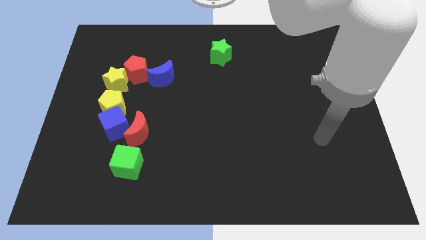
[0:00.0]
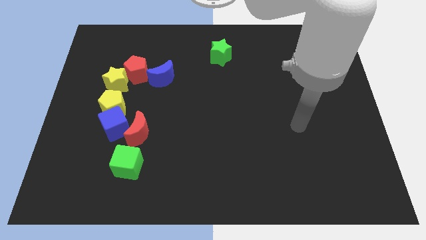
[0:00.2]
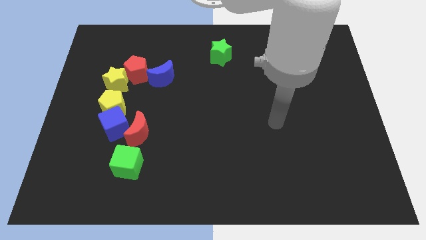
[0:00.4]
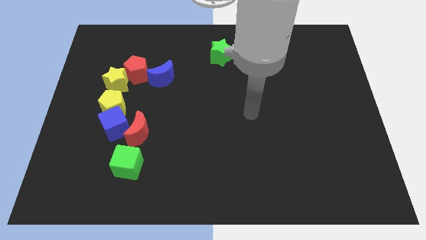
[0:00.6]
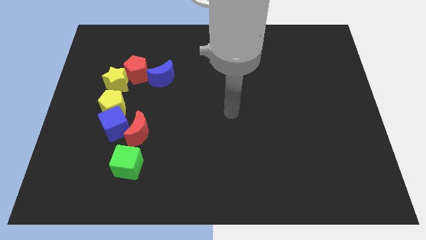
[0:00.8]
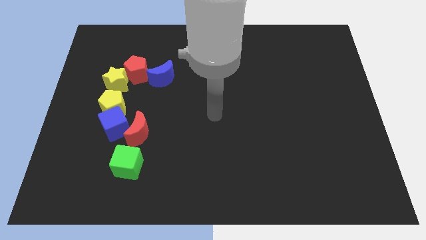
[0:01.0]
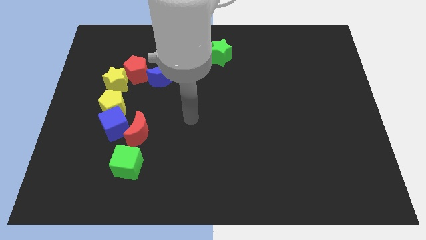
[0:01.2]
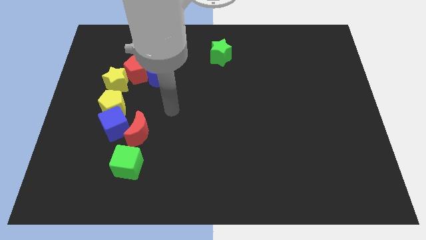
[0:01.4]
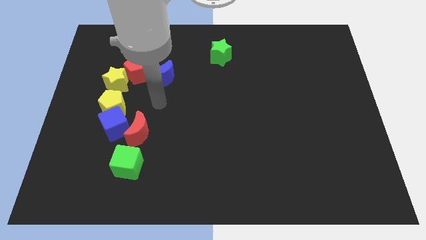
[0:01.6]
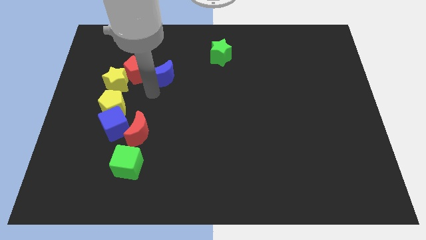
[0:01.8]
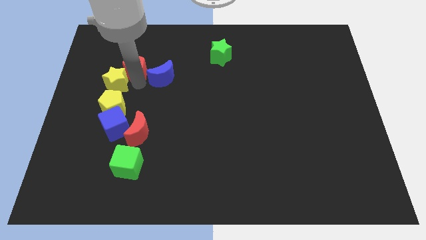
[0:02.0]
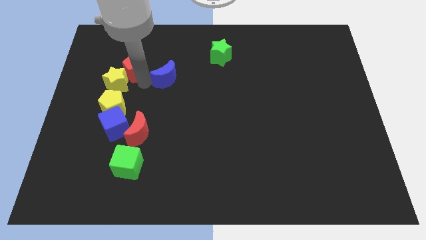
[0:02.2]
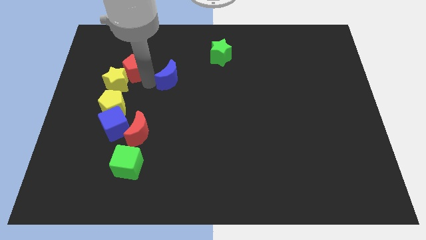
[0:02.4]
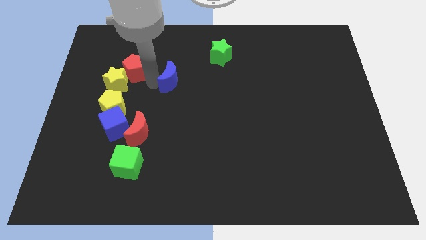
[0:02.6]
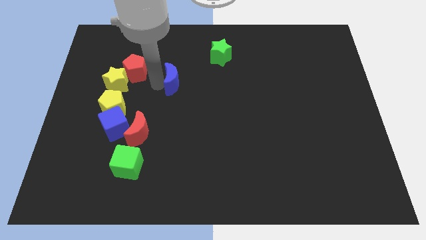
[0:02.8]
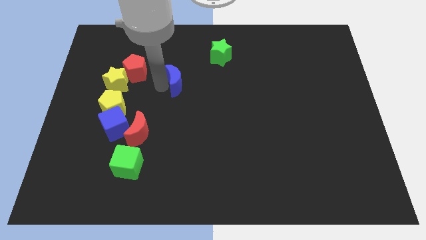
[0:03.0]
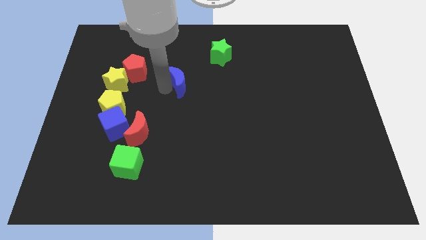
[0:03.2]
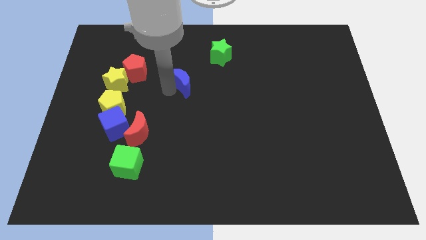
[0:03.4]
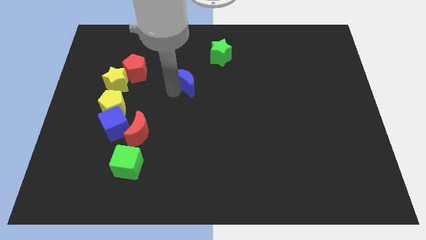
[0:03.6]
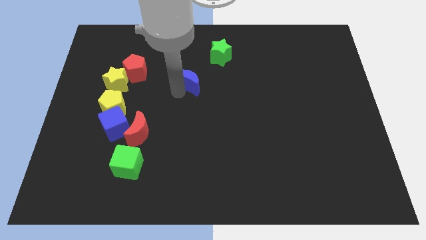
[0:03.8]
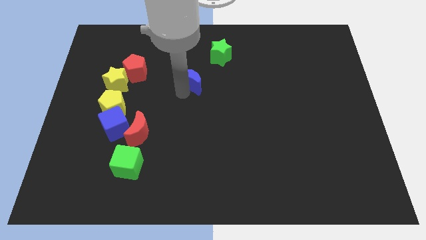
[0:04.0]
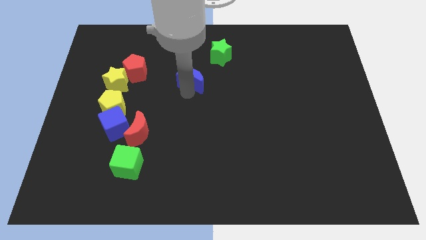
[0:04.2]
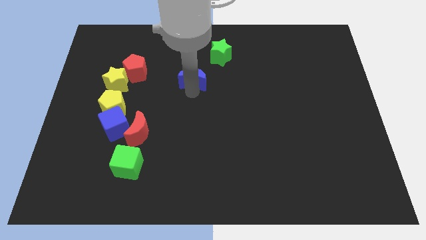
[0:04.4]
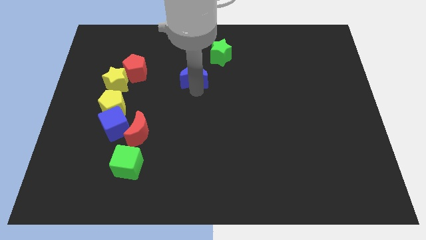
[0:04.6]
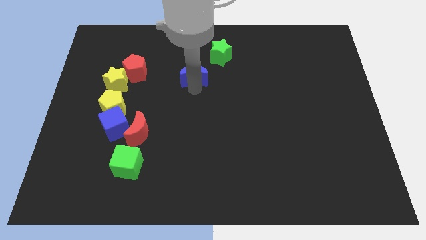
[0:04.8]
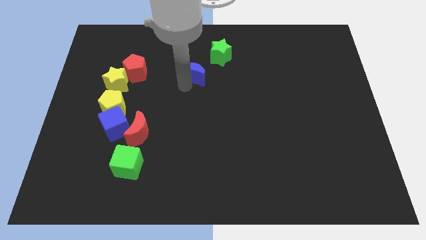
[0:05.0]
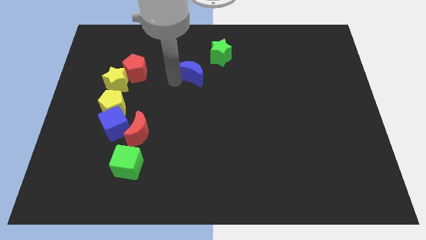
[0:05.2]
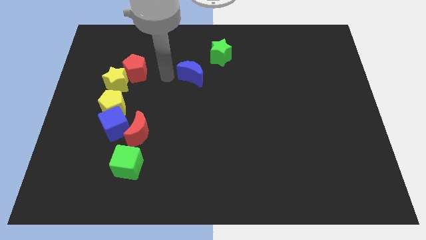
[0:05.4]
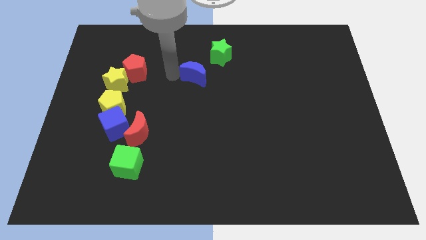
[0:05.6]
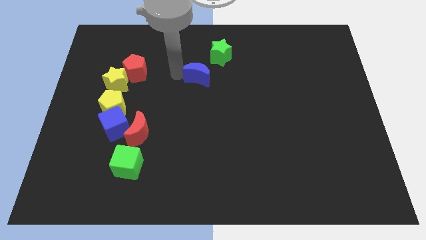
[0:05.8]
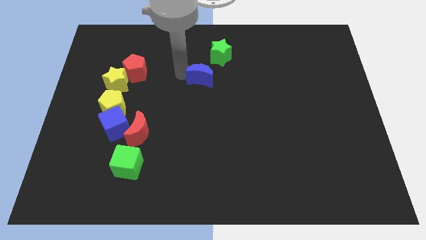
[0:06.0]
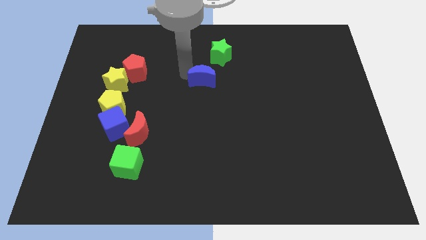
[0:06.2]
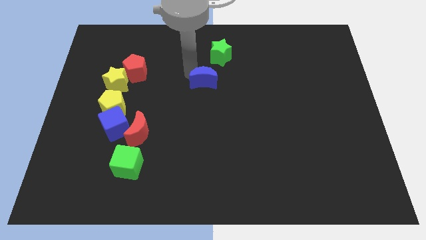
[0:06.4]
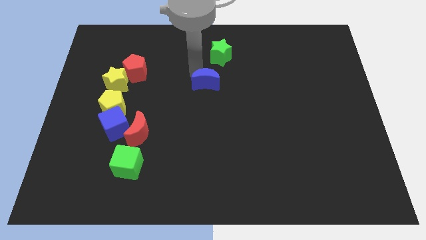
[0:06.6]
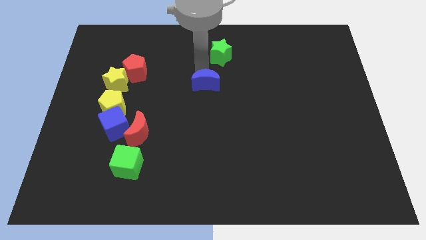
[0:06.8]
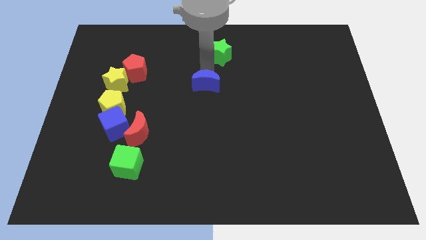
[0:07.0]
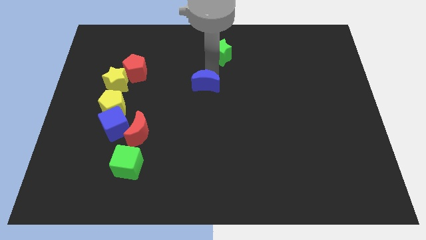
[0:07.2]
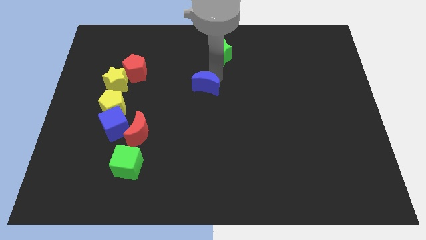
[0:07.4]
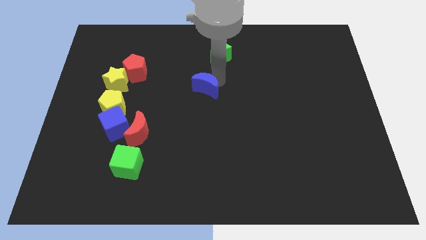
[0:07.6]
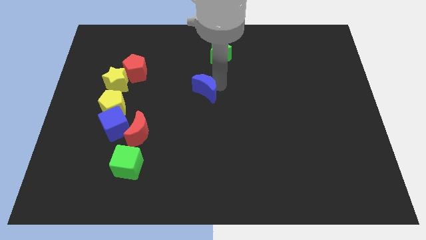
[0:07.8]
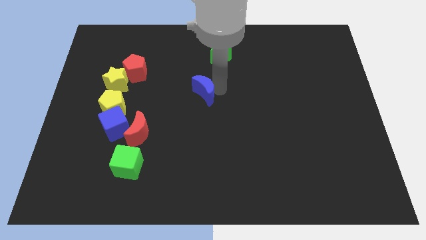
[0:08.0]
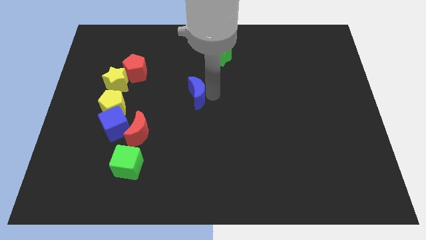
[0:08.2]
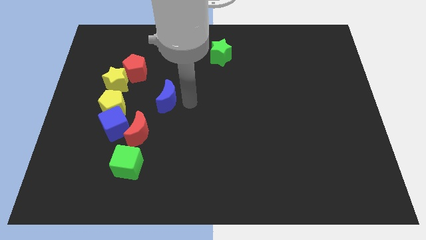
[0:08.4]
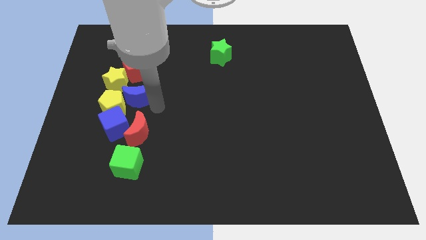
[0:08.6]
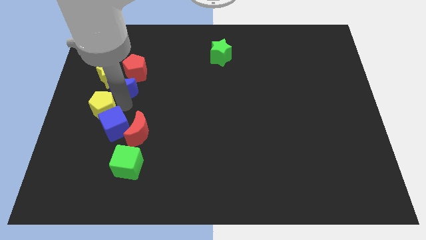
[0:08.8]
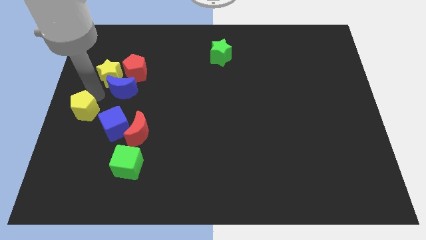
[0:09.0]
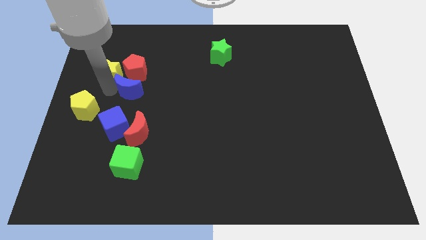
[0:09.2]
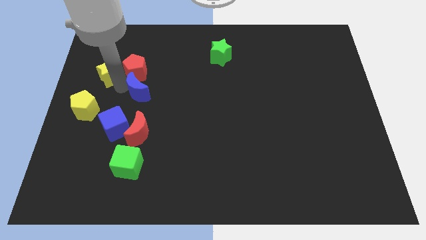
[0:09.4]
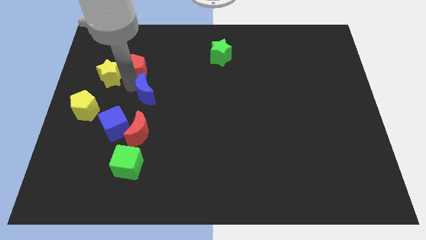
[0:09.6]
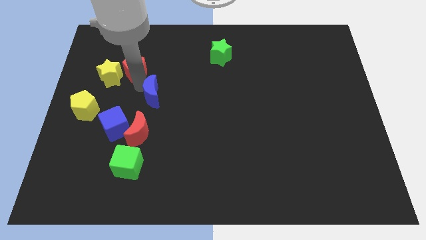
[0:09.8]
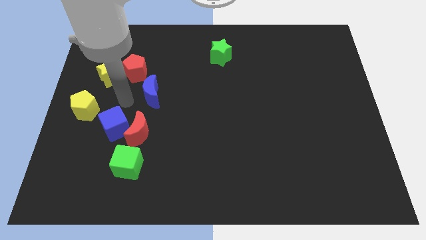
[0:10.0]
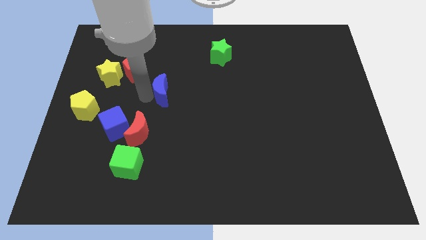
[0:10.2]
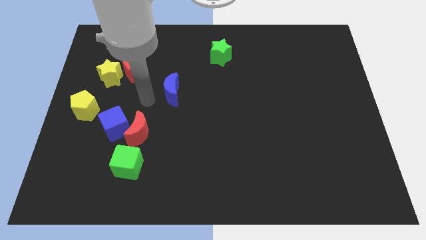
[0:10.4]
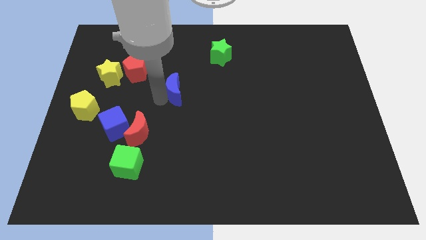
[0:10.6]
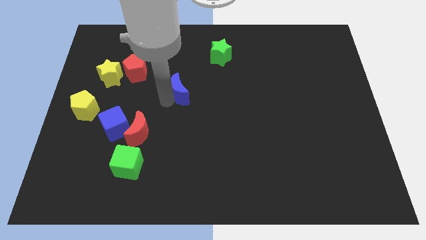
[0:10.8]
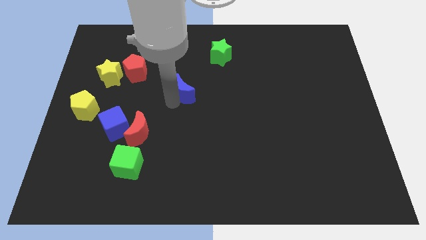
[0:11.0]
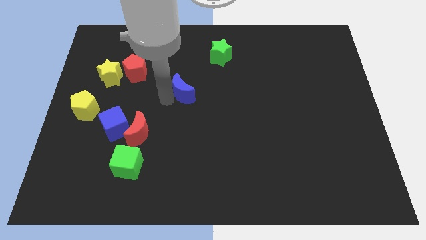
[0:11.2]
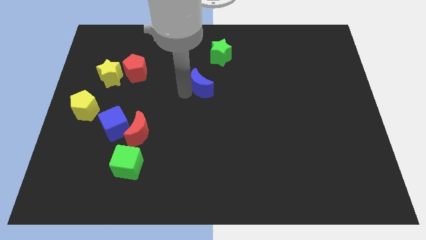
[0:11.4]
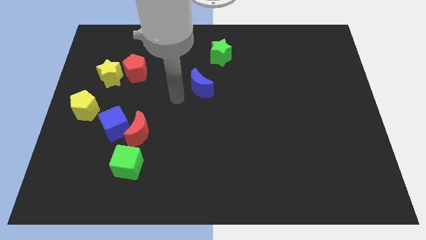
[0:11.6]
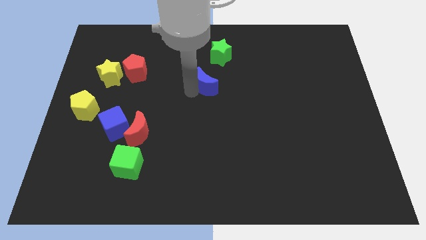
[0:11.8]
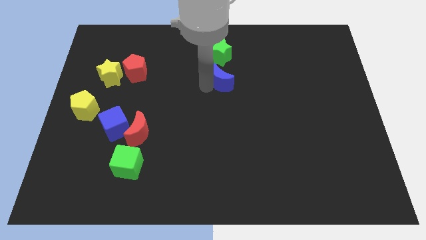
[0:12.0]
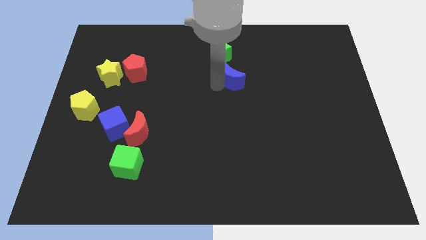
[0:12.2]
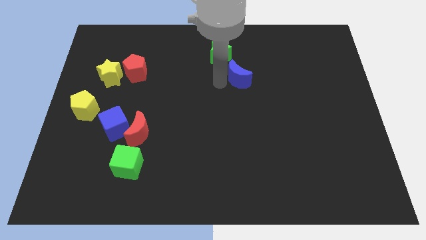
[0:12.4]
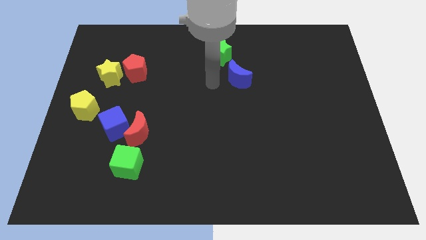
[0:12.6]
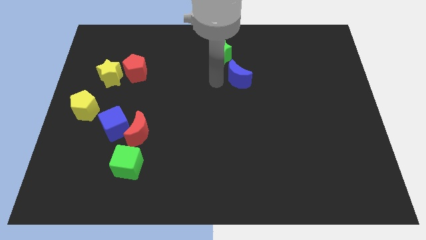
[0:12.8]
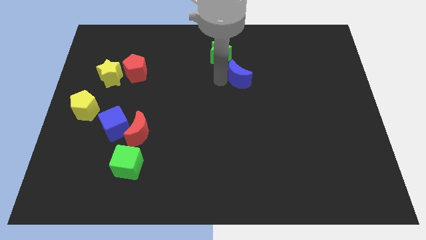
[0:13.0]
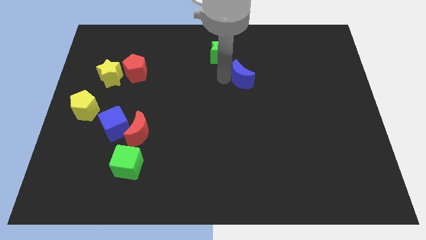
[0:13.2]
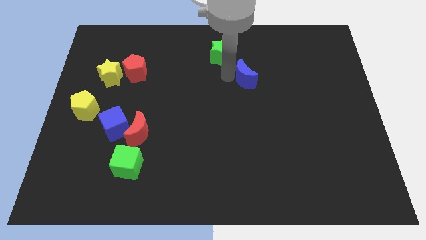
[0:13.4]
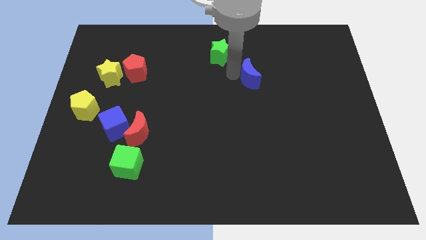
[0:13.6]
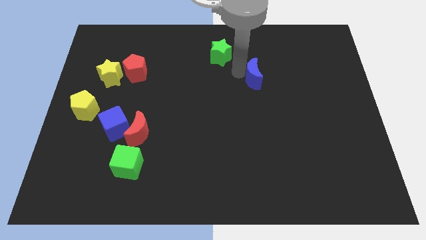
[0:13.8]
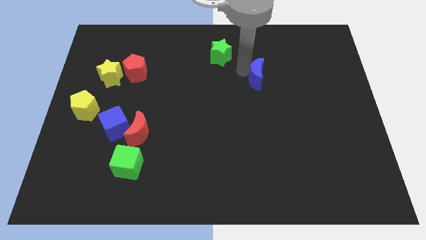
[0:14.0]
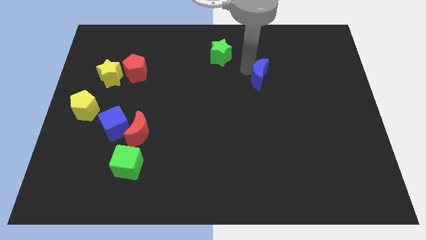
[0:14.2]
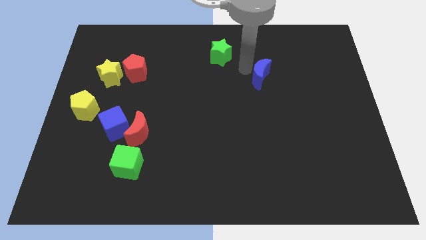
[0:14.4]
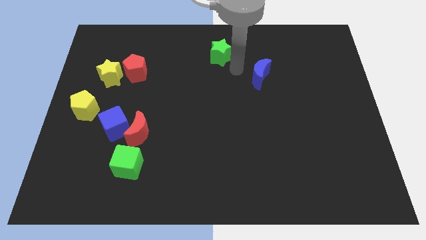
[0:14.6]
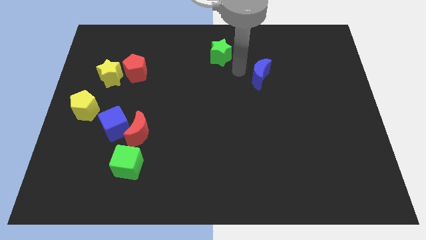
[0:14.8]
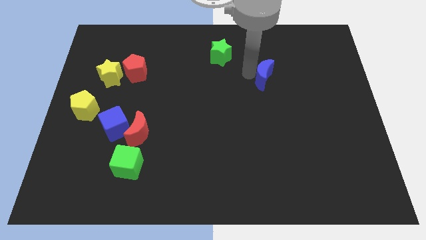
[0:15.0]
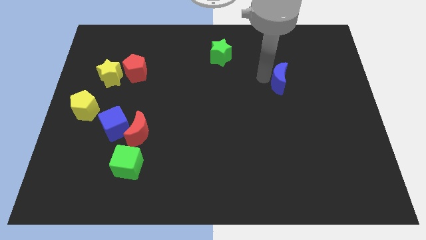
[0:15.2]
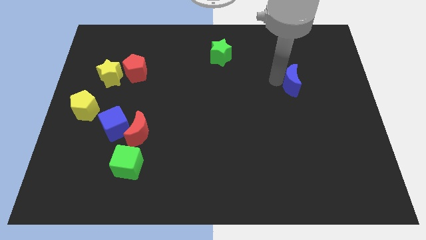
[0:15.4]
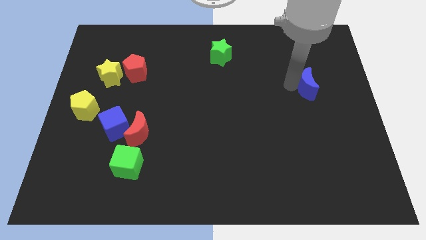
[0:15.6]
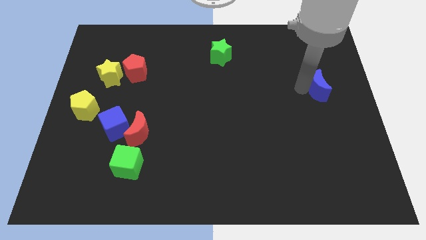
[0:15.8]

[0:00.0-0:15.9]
move the blue moon to the center right
